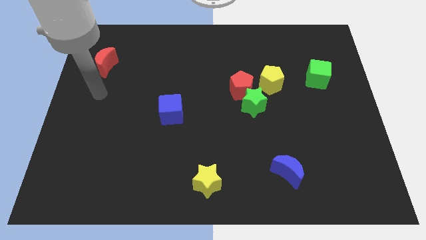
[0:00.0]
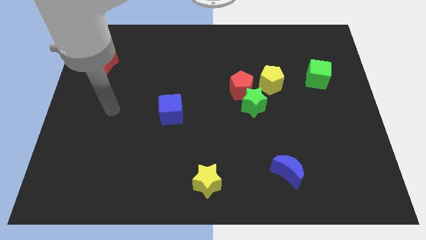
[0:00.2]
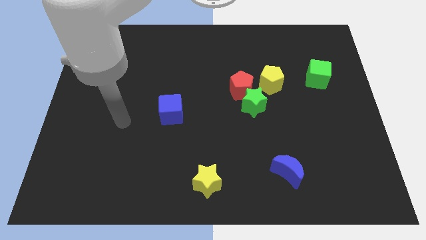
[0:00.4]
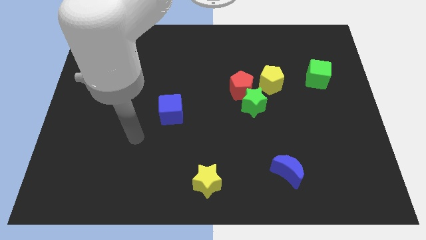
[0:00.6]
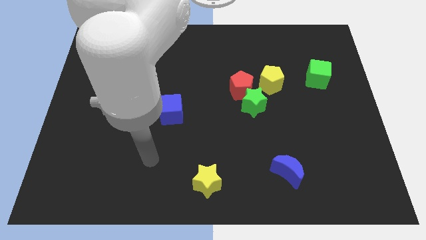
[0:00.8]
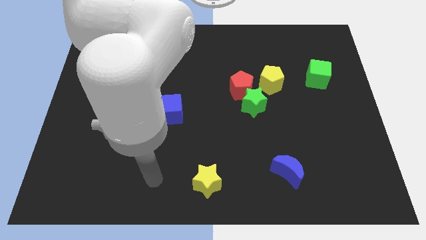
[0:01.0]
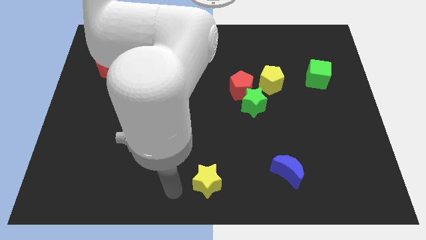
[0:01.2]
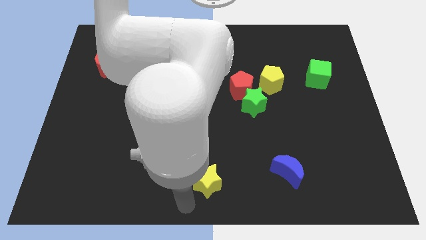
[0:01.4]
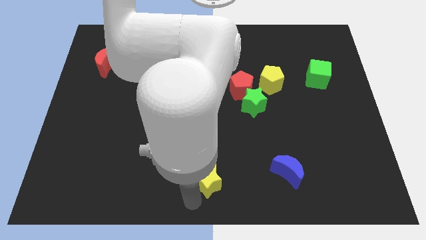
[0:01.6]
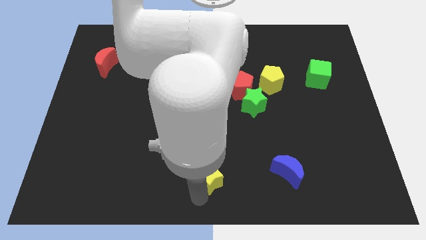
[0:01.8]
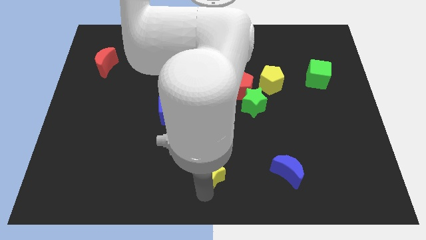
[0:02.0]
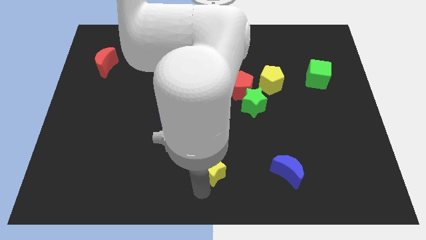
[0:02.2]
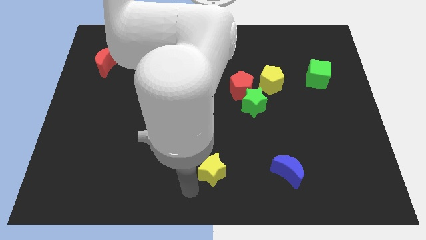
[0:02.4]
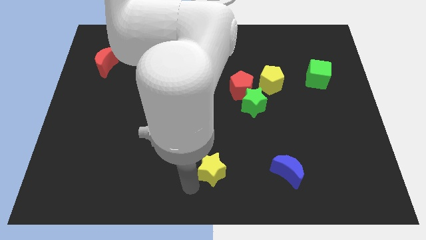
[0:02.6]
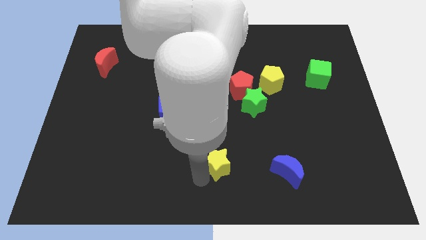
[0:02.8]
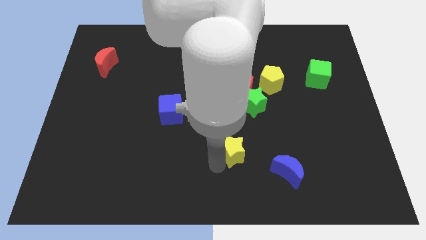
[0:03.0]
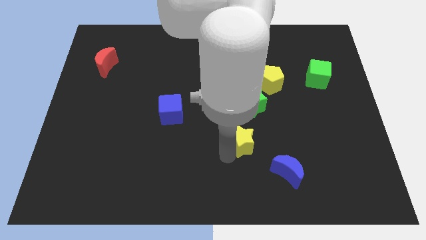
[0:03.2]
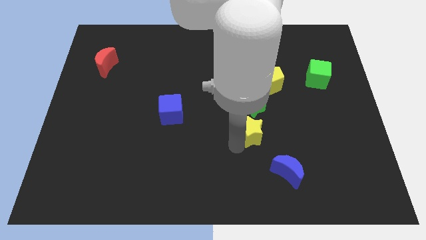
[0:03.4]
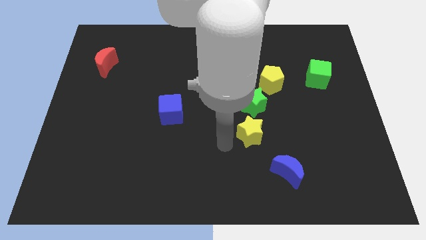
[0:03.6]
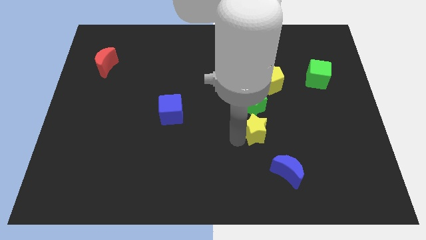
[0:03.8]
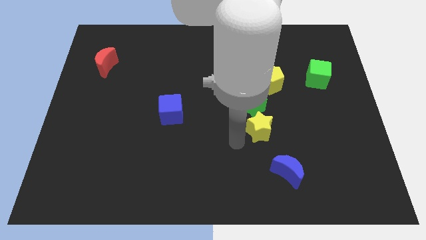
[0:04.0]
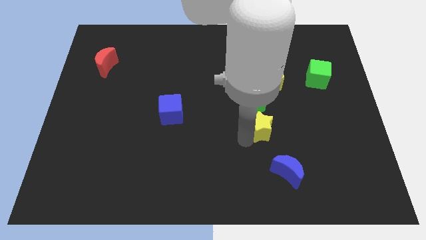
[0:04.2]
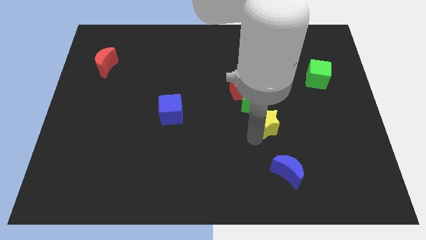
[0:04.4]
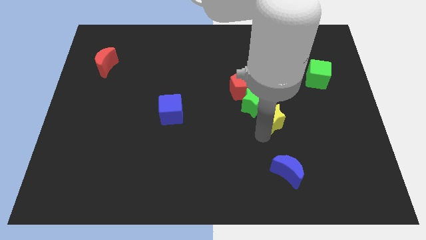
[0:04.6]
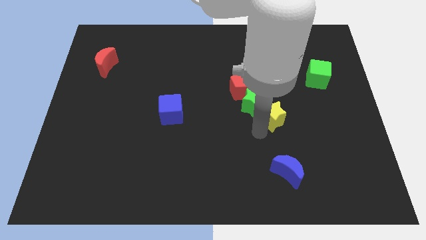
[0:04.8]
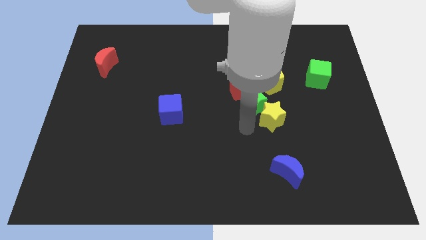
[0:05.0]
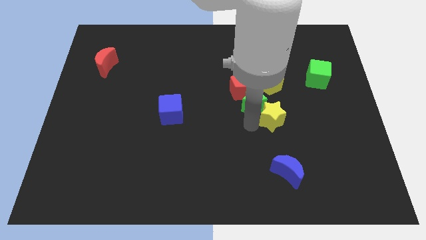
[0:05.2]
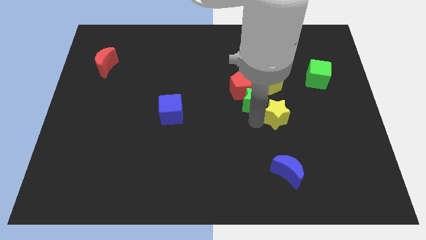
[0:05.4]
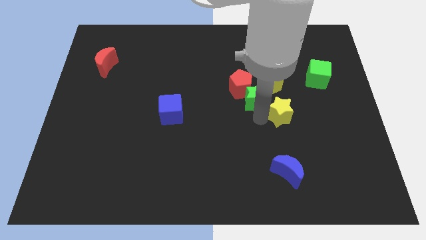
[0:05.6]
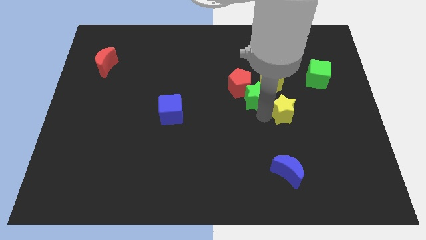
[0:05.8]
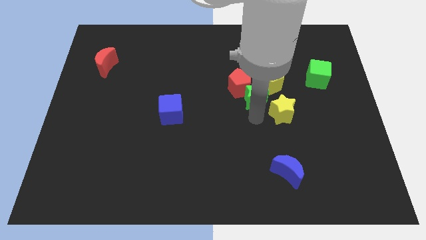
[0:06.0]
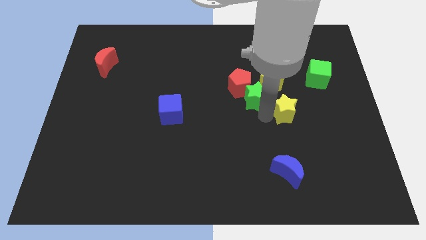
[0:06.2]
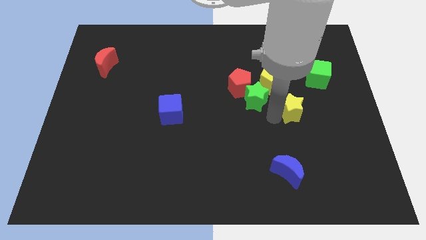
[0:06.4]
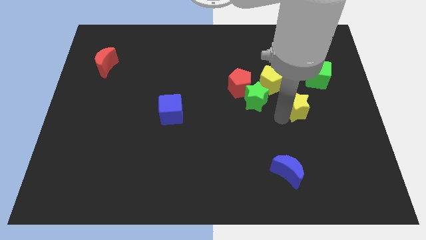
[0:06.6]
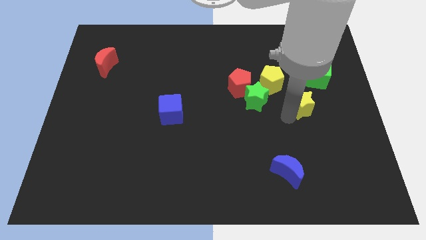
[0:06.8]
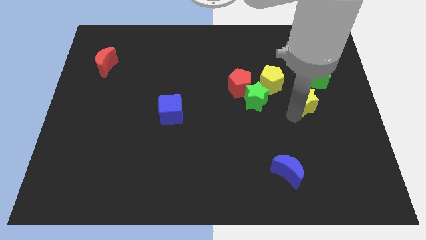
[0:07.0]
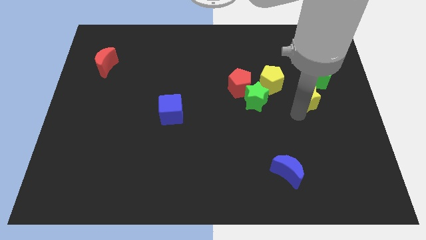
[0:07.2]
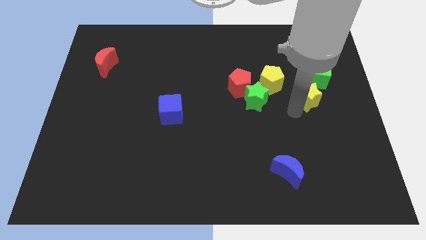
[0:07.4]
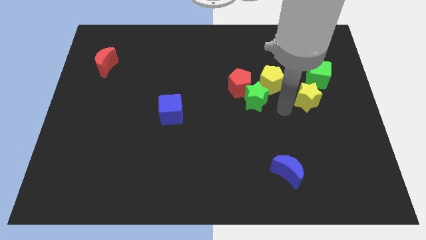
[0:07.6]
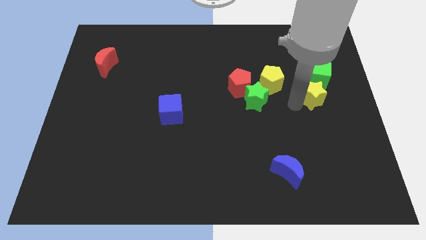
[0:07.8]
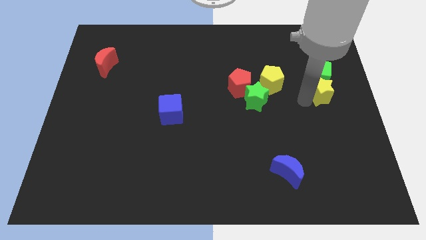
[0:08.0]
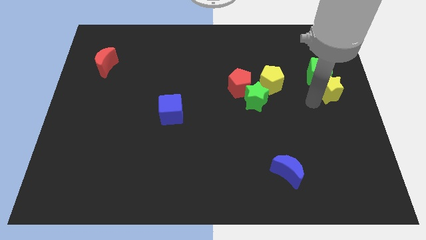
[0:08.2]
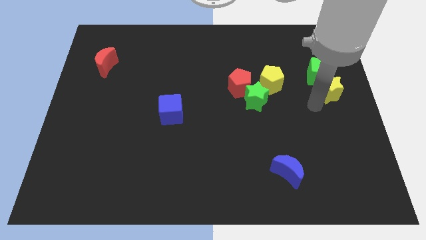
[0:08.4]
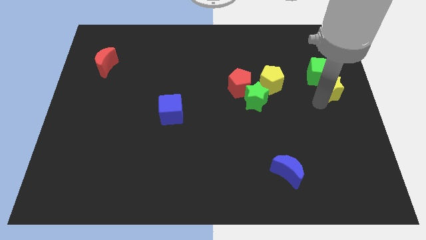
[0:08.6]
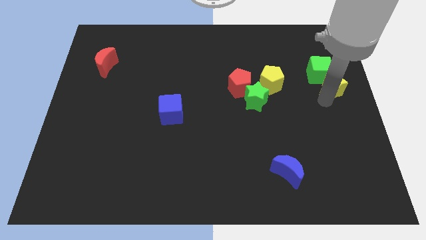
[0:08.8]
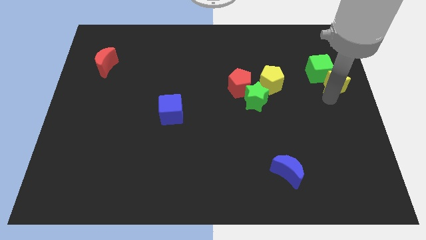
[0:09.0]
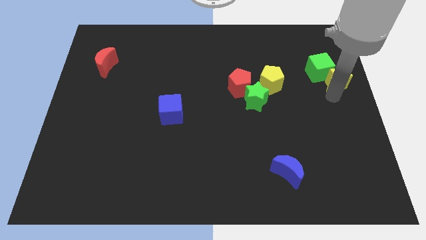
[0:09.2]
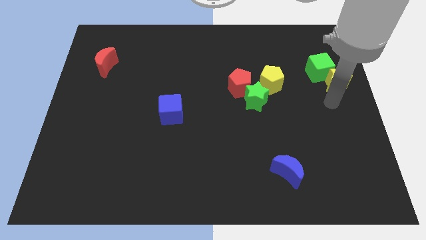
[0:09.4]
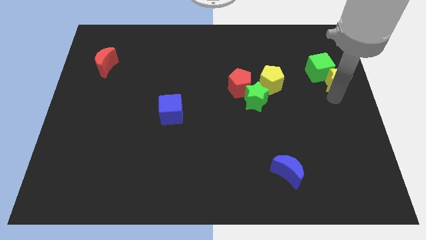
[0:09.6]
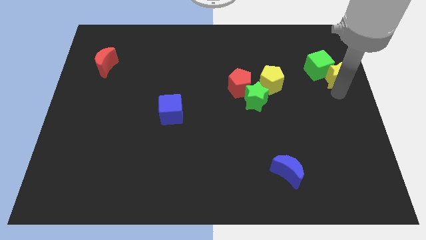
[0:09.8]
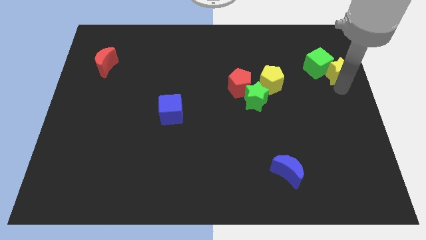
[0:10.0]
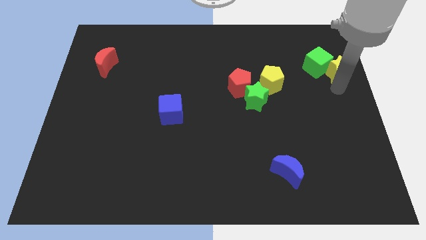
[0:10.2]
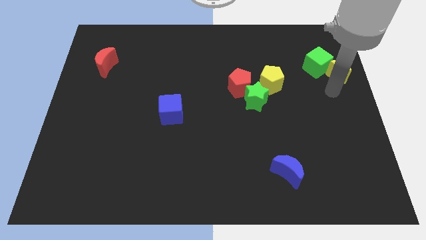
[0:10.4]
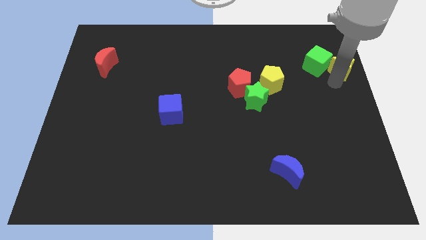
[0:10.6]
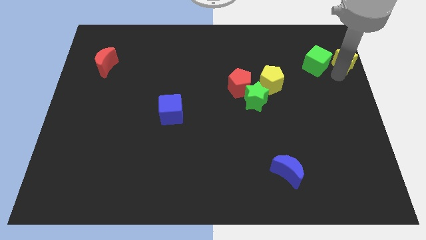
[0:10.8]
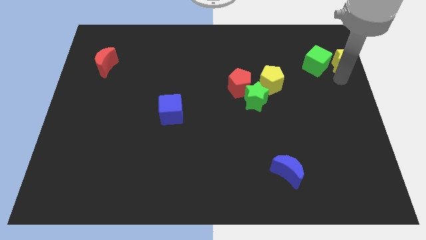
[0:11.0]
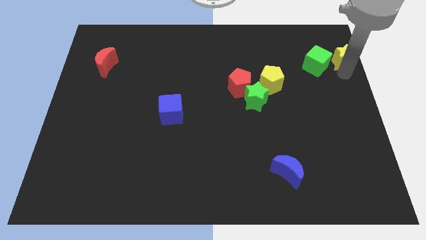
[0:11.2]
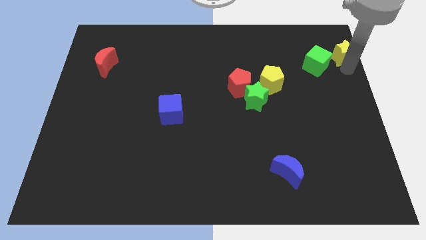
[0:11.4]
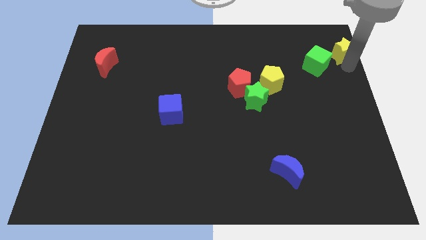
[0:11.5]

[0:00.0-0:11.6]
put the yellow star to the top right

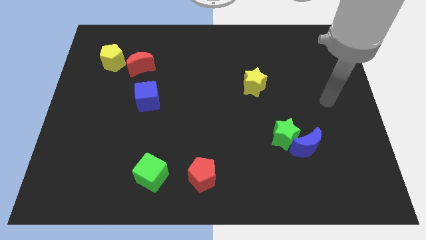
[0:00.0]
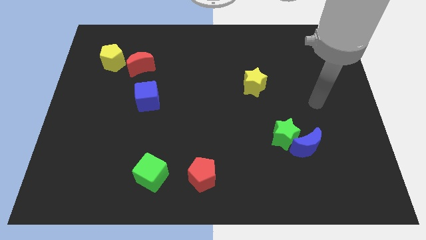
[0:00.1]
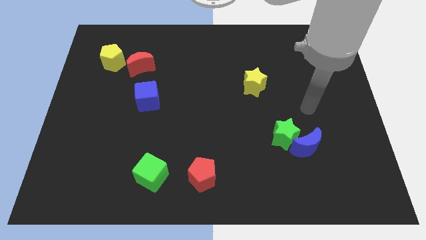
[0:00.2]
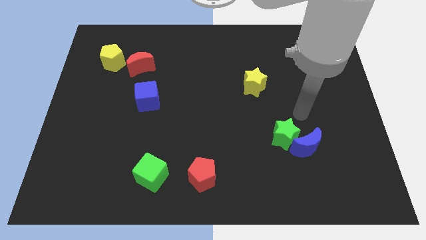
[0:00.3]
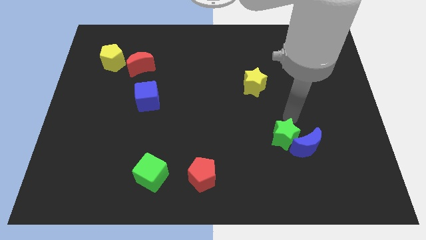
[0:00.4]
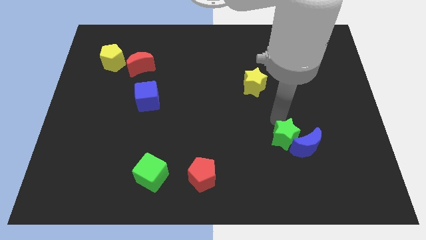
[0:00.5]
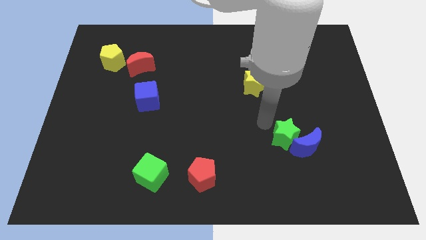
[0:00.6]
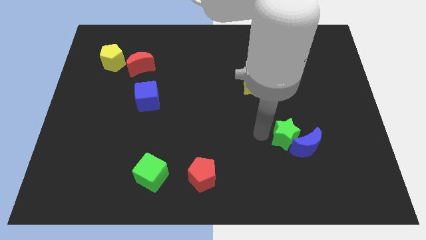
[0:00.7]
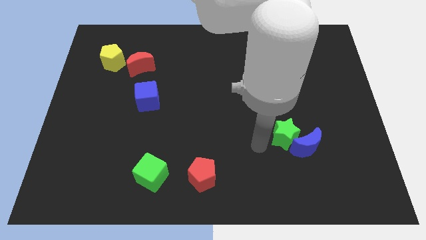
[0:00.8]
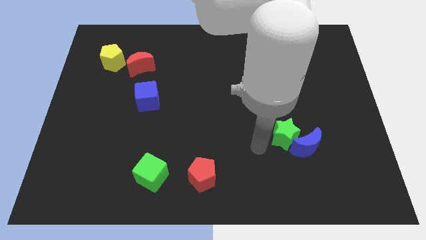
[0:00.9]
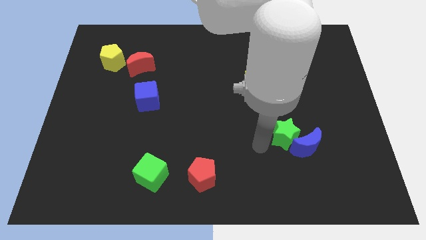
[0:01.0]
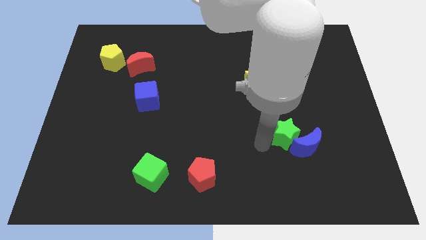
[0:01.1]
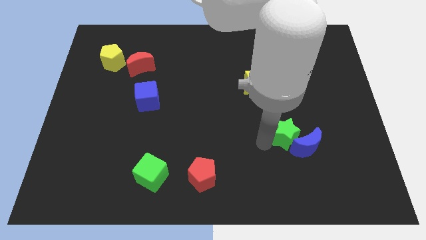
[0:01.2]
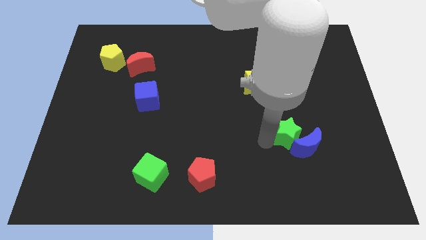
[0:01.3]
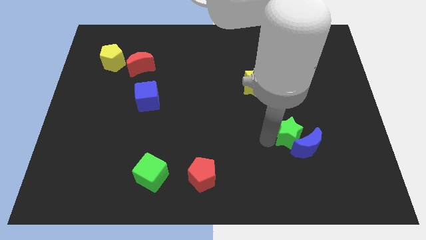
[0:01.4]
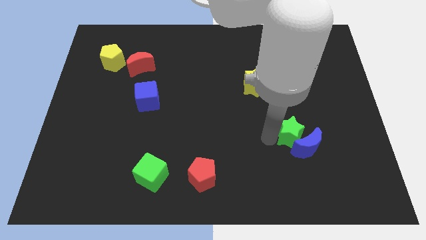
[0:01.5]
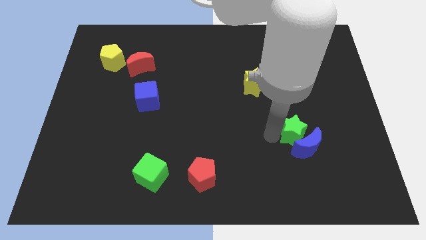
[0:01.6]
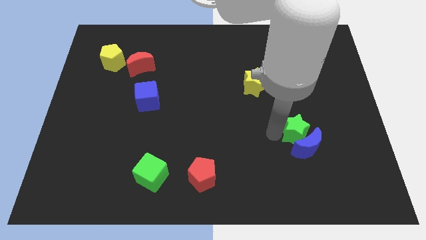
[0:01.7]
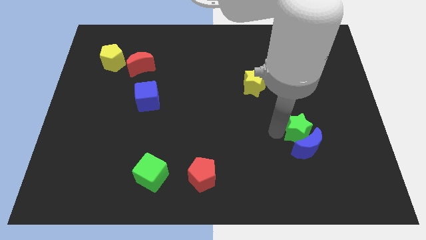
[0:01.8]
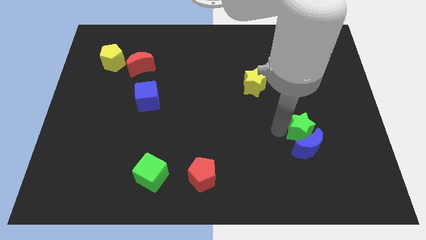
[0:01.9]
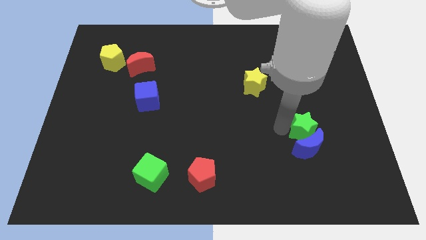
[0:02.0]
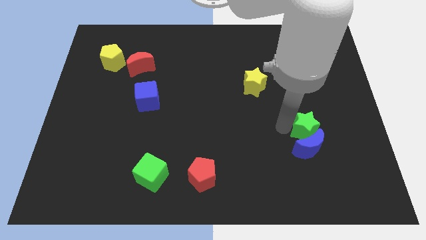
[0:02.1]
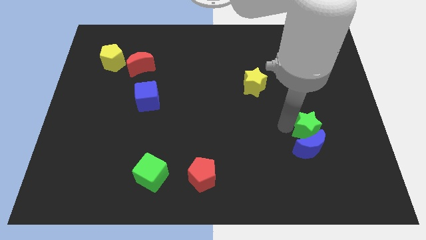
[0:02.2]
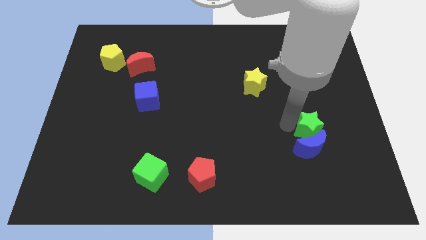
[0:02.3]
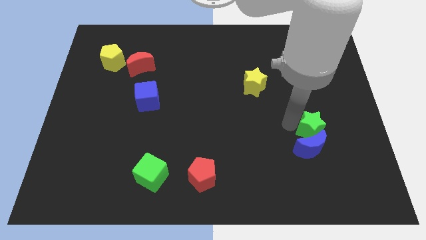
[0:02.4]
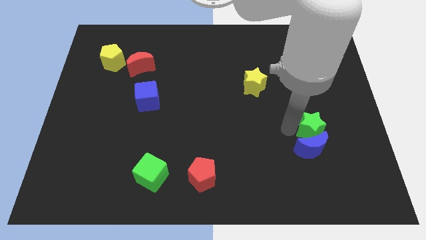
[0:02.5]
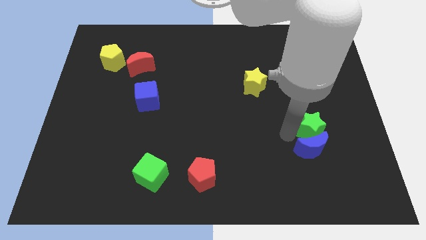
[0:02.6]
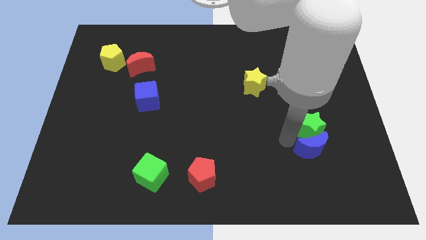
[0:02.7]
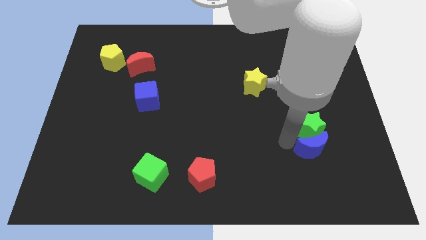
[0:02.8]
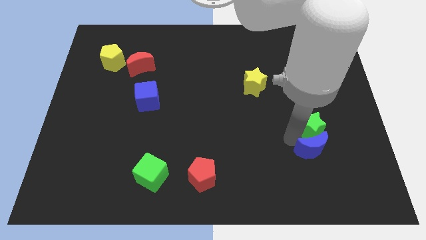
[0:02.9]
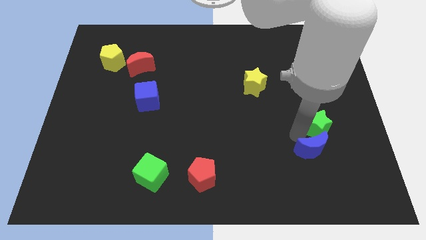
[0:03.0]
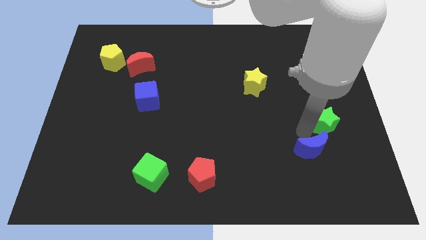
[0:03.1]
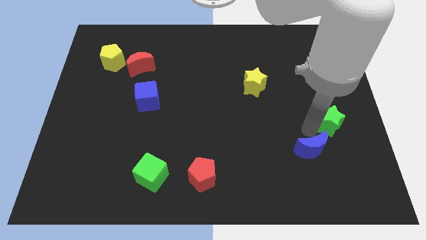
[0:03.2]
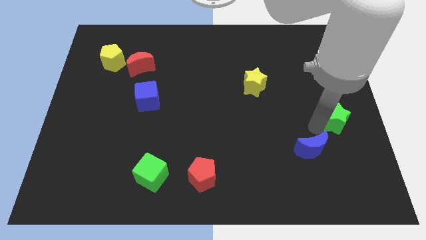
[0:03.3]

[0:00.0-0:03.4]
slide the green star to the center right
